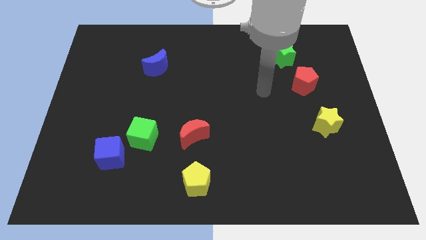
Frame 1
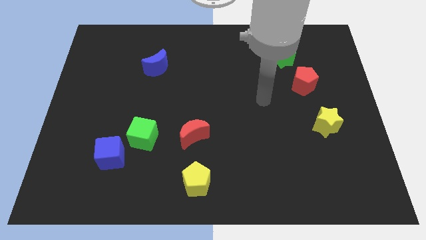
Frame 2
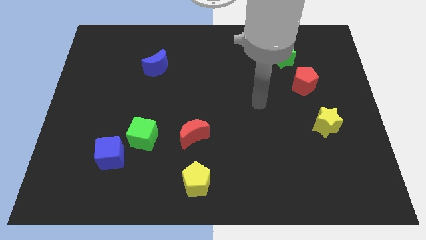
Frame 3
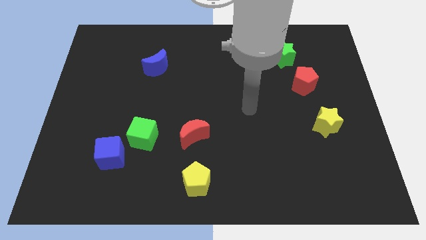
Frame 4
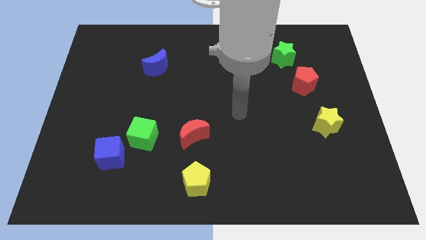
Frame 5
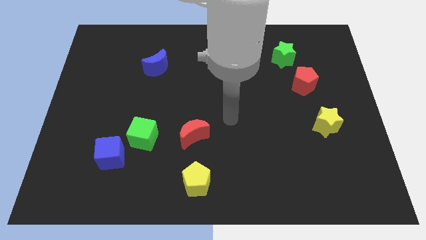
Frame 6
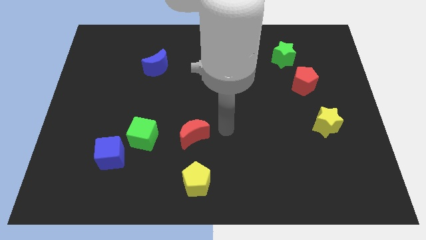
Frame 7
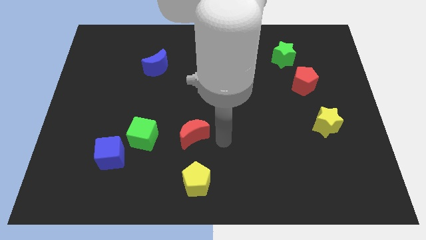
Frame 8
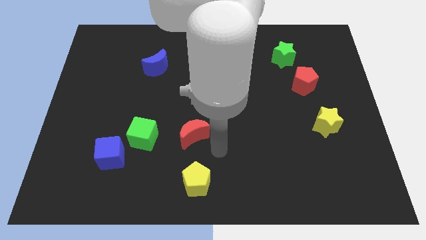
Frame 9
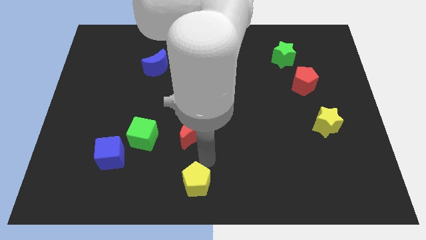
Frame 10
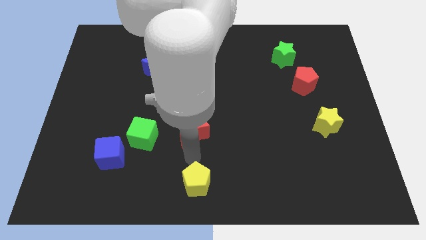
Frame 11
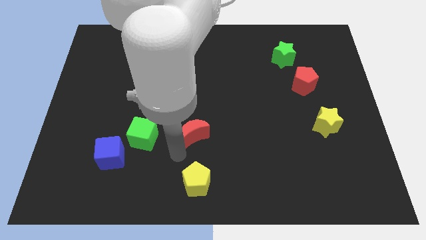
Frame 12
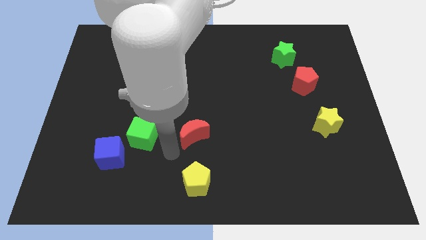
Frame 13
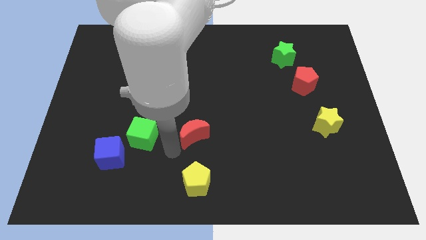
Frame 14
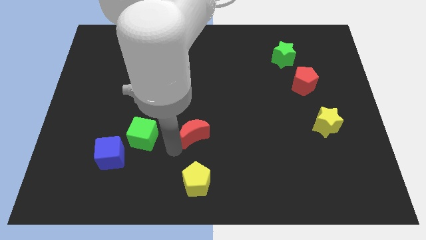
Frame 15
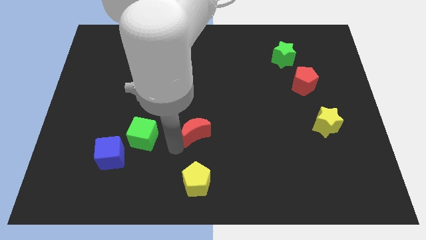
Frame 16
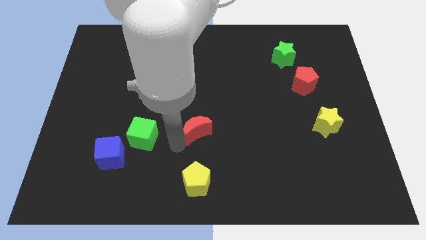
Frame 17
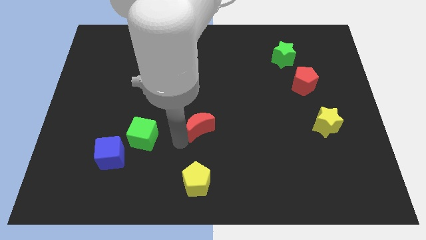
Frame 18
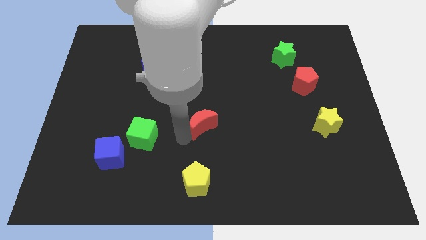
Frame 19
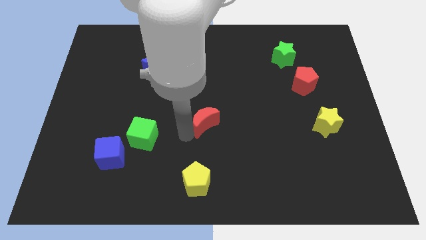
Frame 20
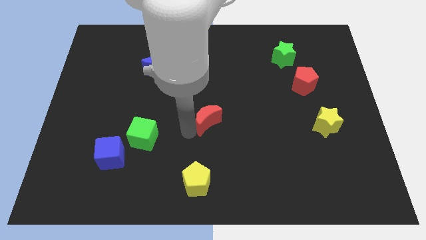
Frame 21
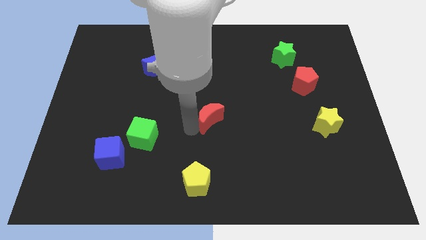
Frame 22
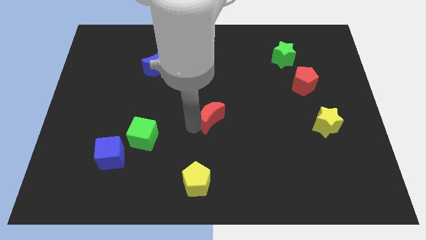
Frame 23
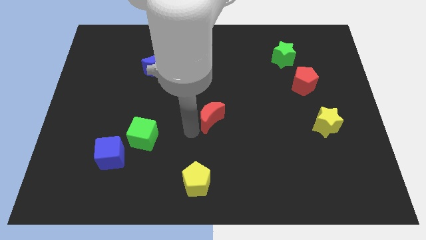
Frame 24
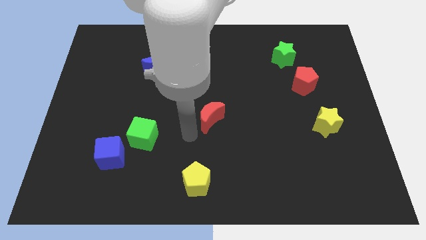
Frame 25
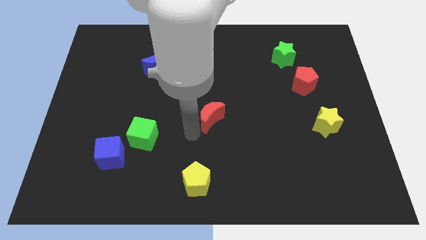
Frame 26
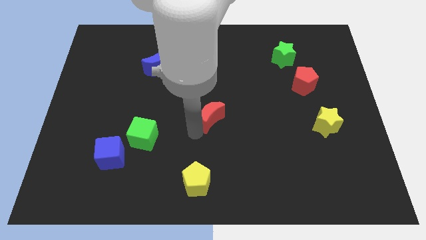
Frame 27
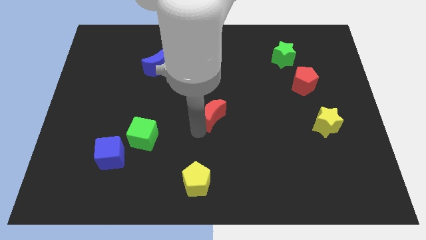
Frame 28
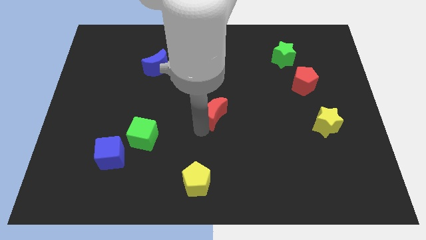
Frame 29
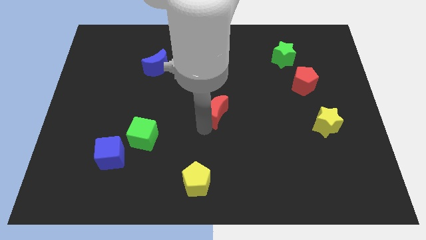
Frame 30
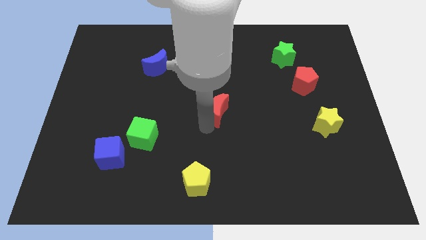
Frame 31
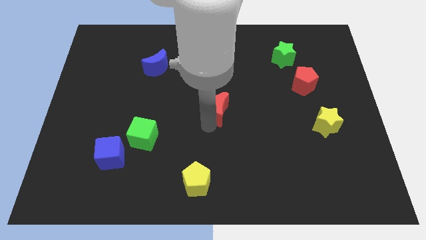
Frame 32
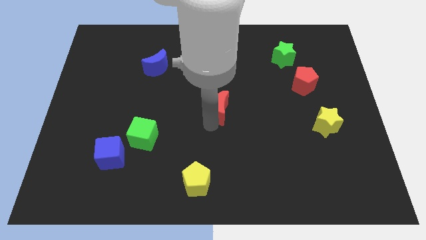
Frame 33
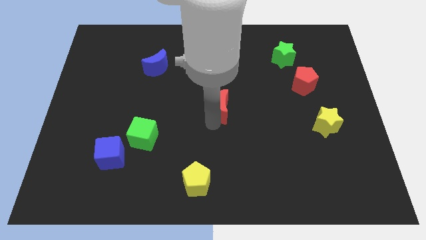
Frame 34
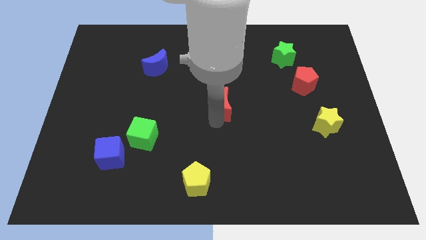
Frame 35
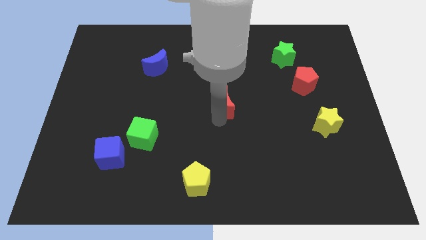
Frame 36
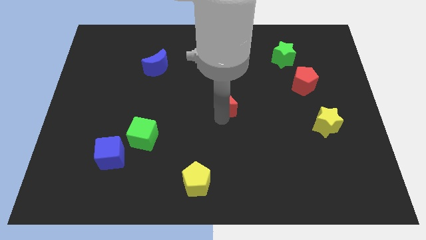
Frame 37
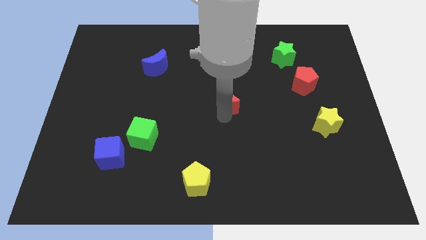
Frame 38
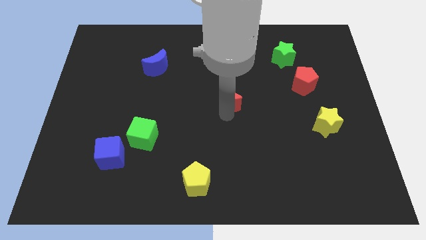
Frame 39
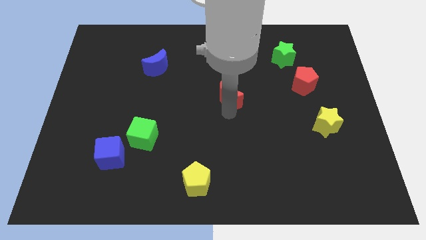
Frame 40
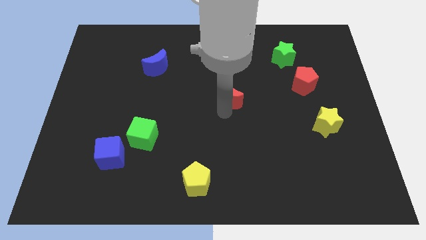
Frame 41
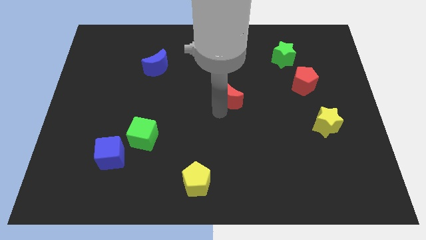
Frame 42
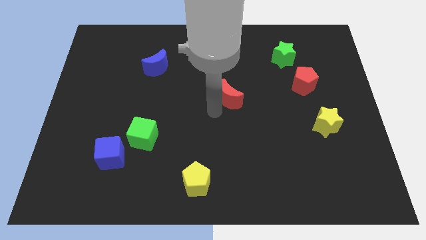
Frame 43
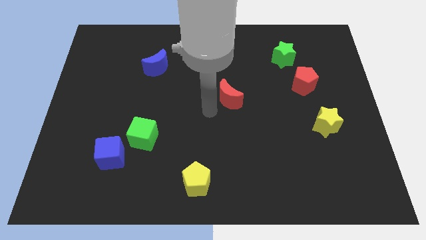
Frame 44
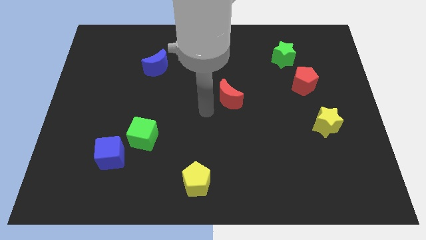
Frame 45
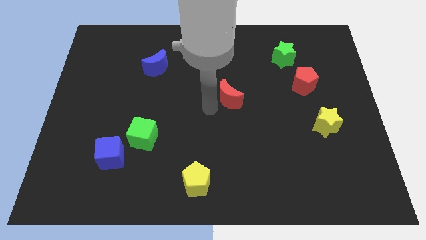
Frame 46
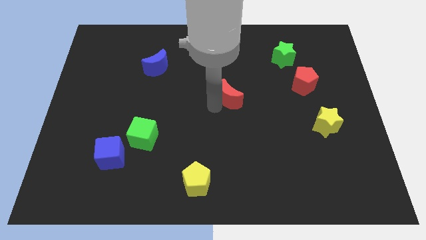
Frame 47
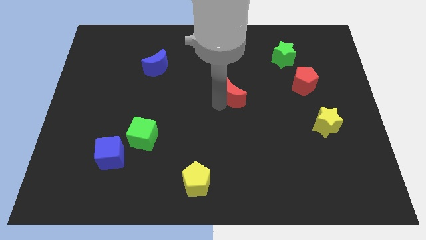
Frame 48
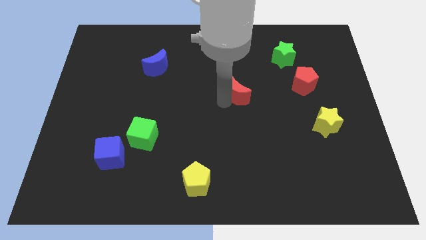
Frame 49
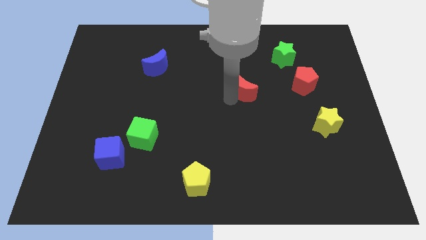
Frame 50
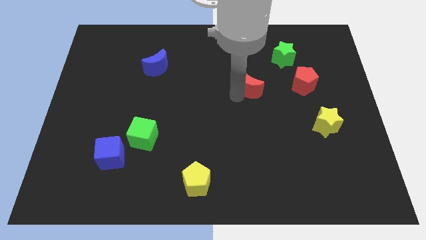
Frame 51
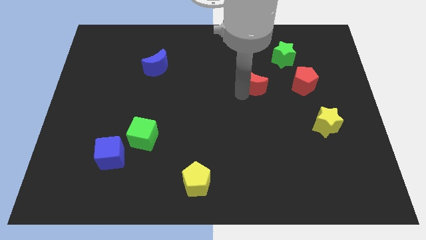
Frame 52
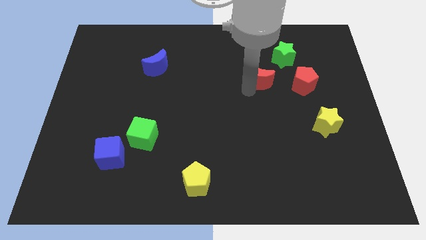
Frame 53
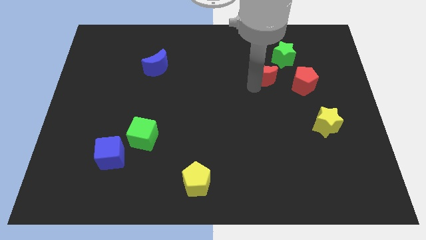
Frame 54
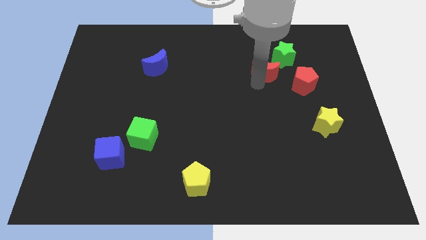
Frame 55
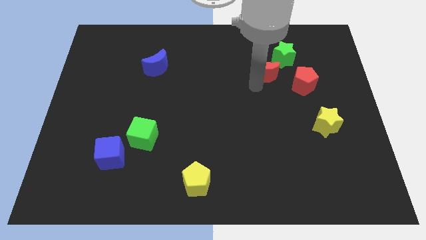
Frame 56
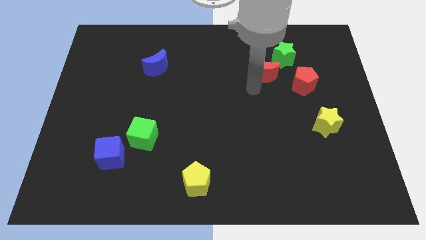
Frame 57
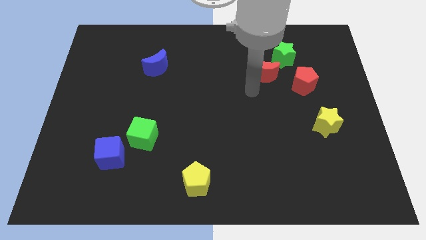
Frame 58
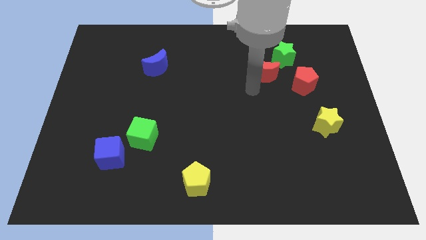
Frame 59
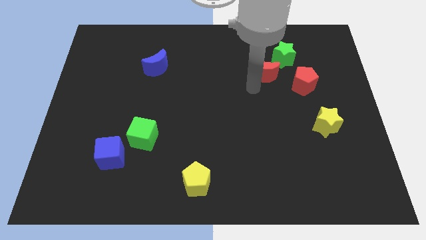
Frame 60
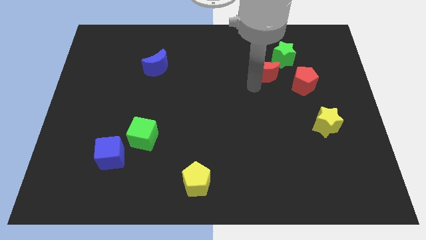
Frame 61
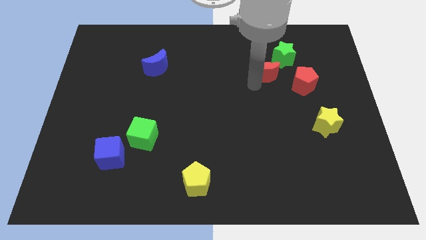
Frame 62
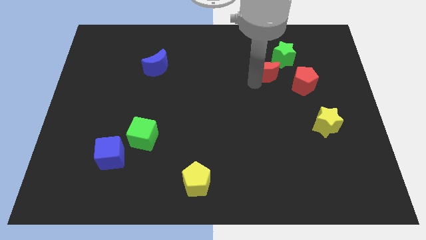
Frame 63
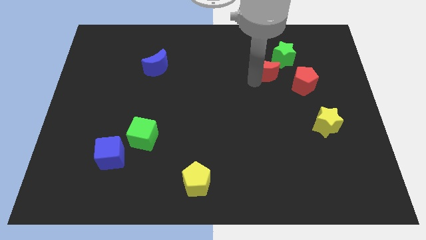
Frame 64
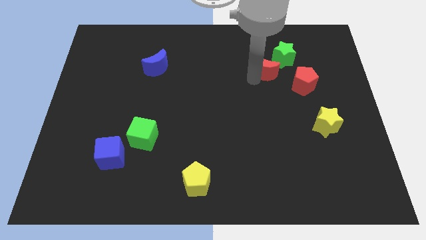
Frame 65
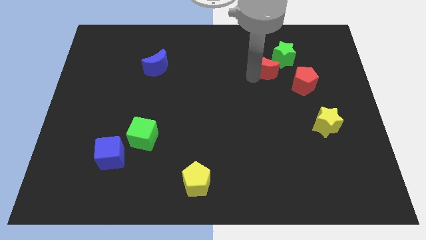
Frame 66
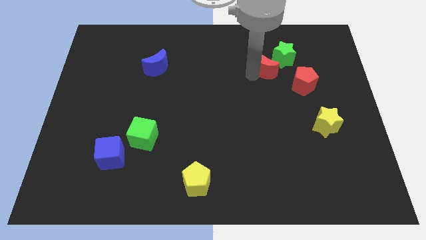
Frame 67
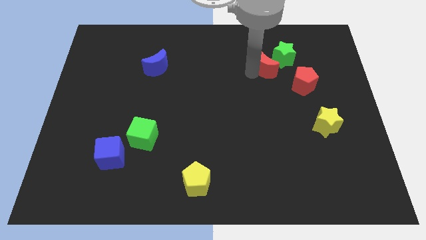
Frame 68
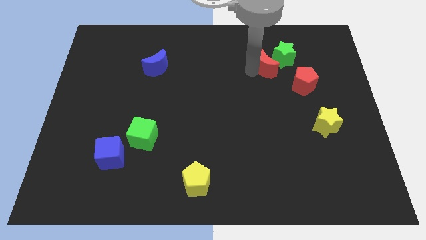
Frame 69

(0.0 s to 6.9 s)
put the red moon next to the green star

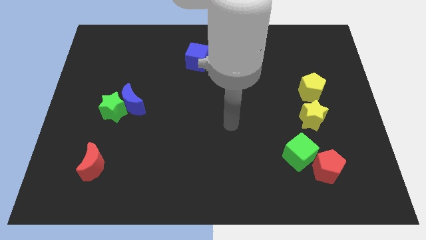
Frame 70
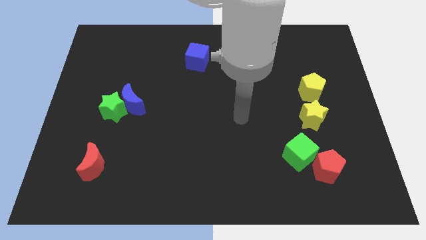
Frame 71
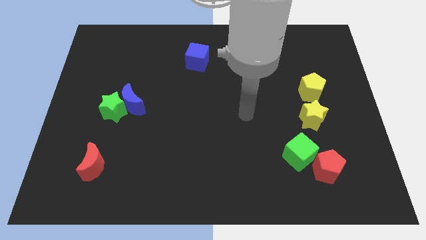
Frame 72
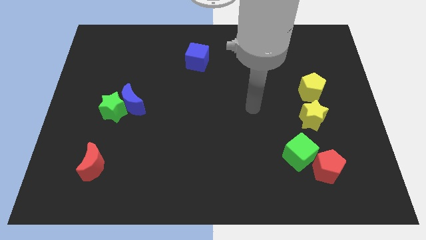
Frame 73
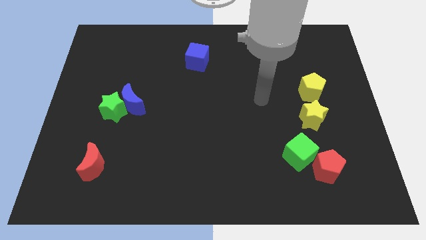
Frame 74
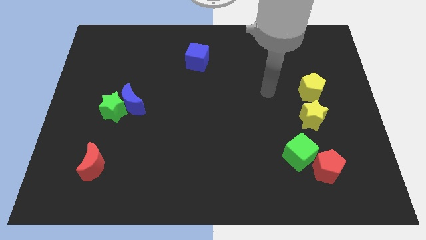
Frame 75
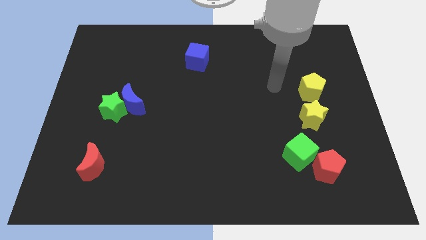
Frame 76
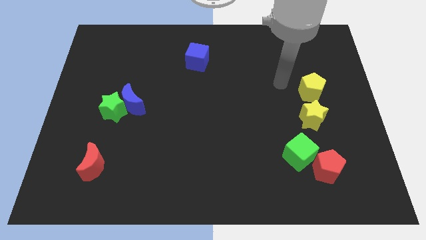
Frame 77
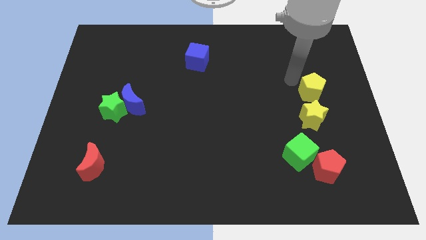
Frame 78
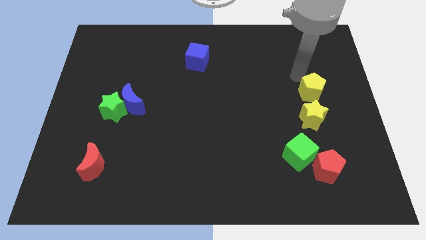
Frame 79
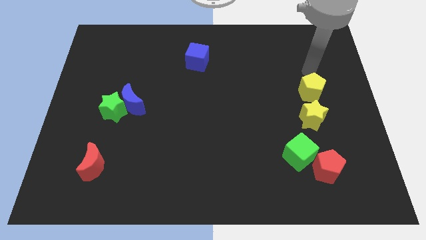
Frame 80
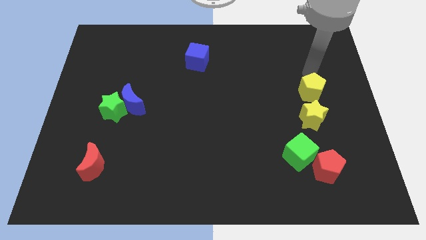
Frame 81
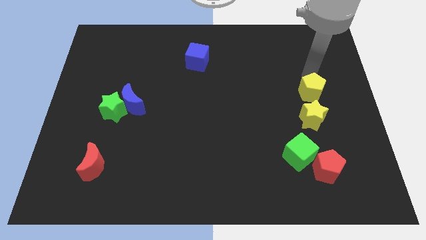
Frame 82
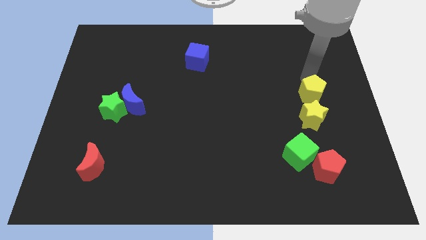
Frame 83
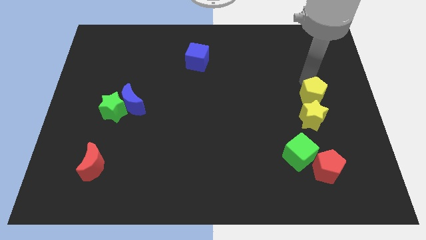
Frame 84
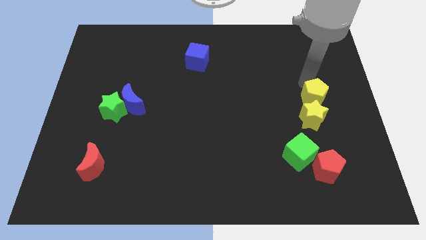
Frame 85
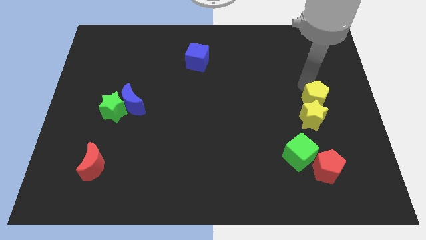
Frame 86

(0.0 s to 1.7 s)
push the yellow pentagon close to the yellow star
